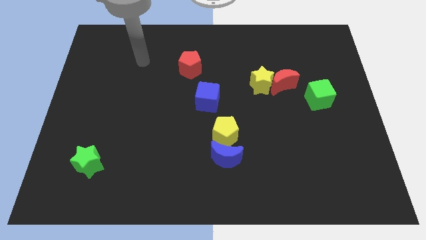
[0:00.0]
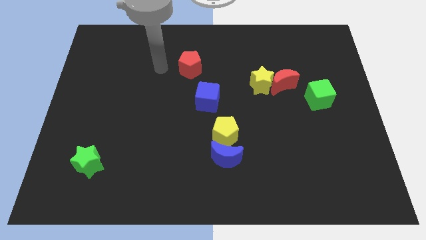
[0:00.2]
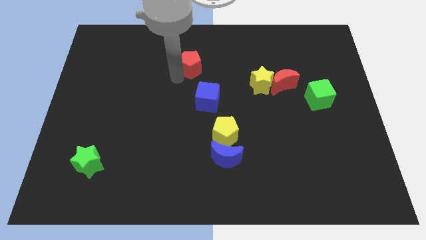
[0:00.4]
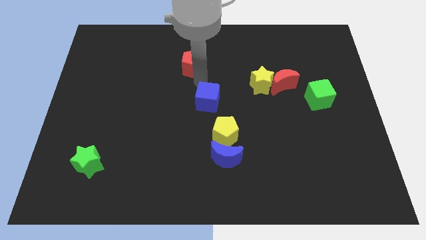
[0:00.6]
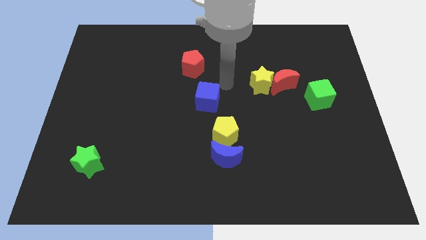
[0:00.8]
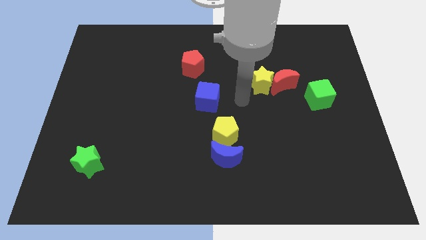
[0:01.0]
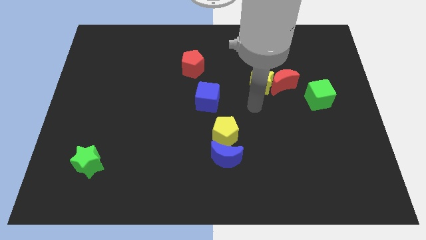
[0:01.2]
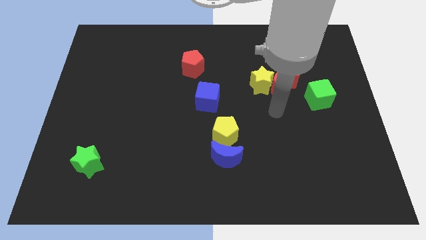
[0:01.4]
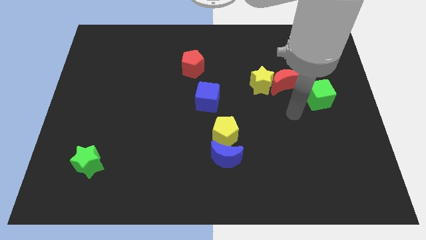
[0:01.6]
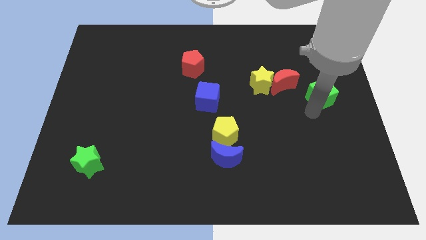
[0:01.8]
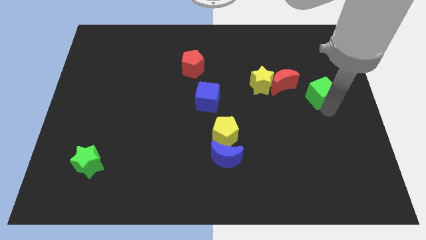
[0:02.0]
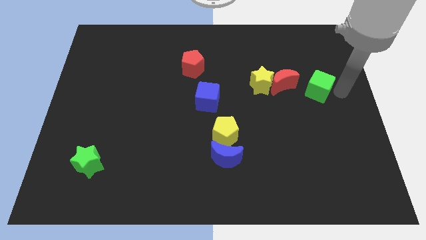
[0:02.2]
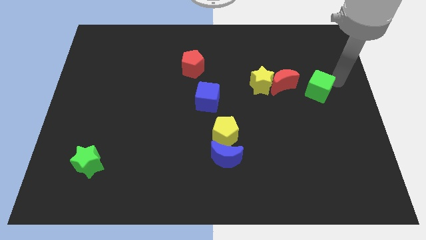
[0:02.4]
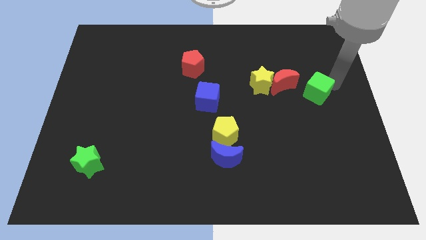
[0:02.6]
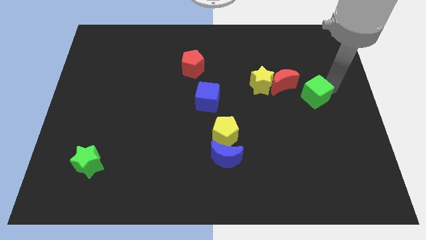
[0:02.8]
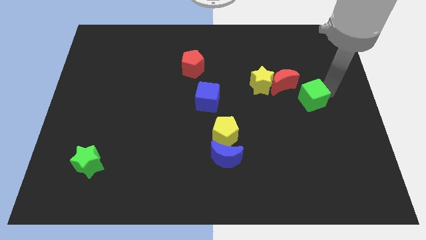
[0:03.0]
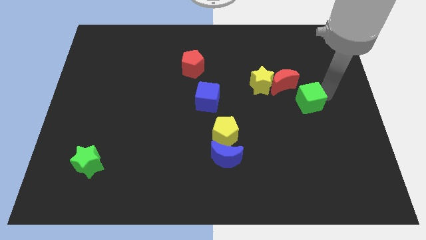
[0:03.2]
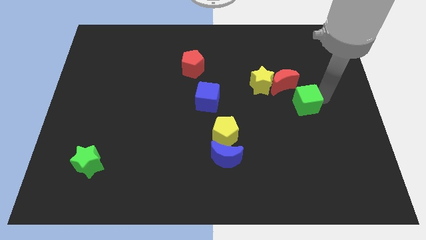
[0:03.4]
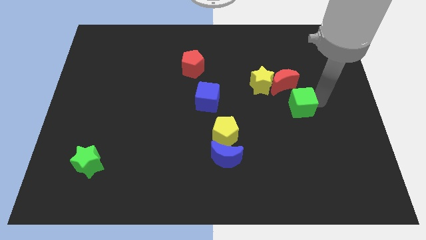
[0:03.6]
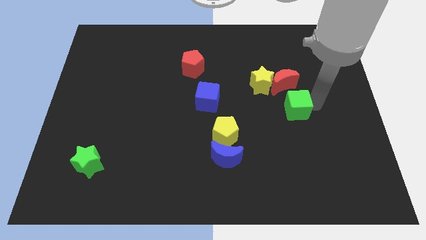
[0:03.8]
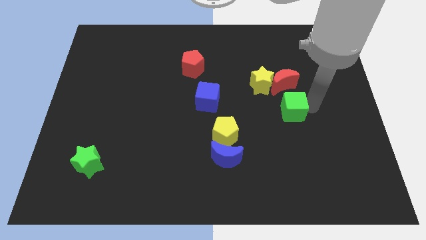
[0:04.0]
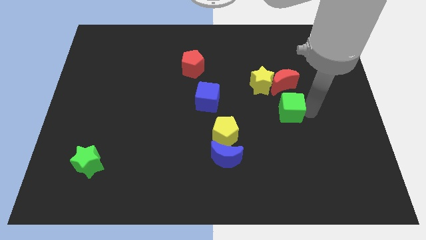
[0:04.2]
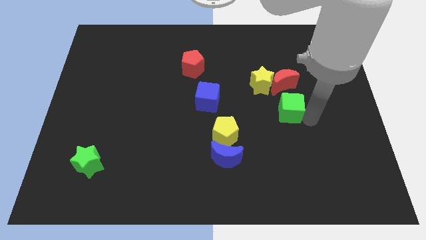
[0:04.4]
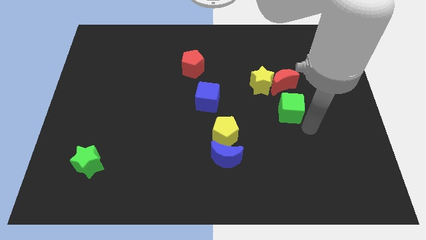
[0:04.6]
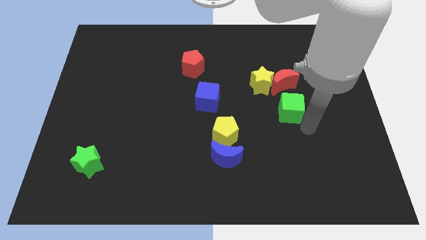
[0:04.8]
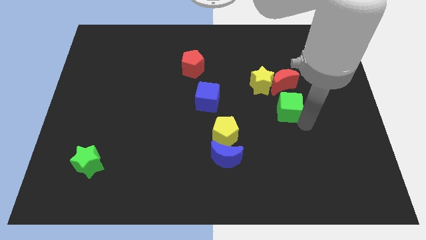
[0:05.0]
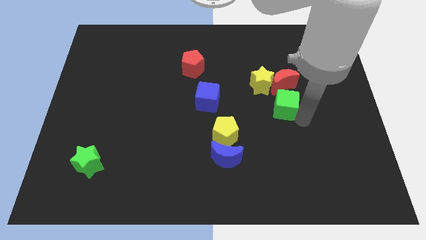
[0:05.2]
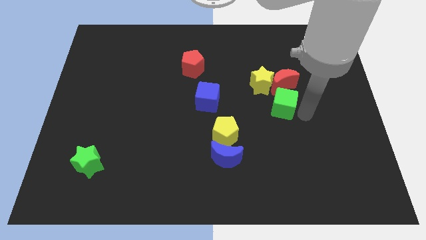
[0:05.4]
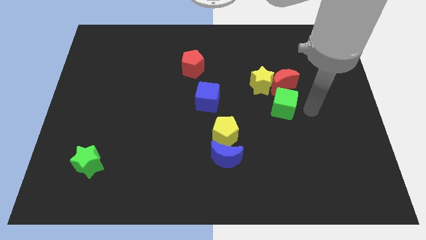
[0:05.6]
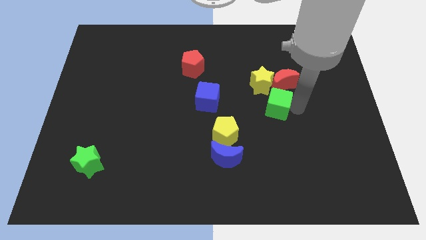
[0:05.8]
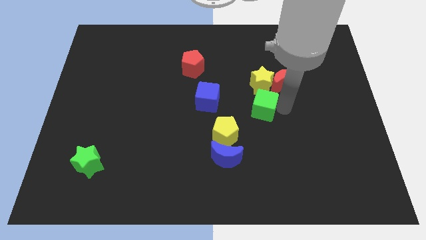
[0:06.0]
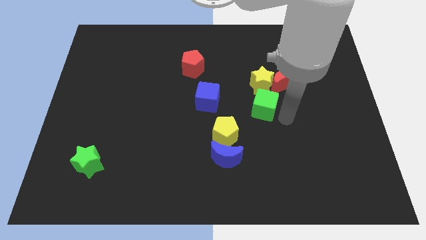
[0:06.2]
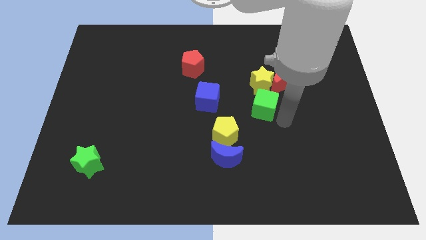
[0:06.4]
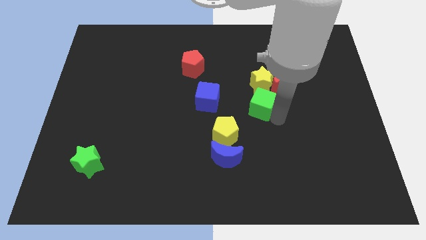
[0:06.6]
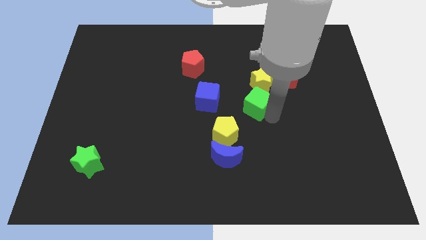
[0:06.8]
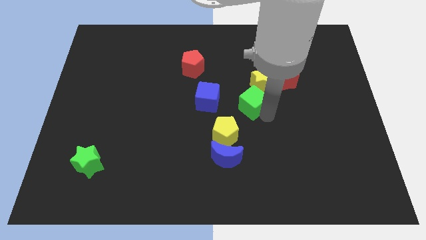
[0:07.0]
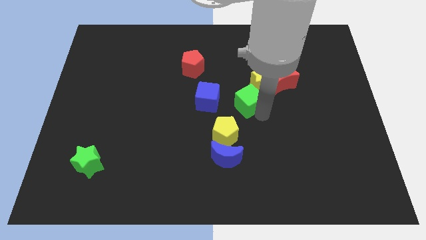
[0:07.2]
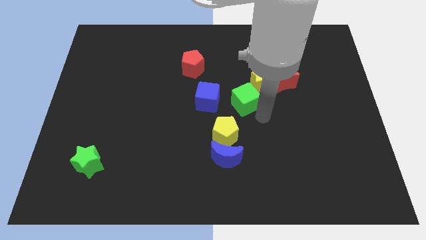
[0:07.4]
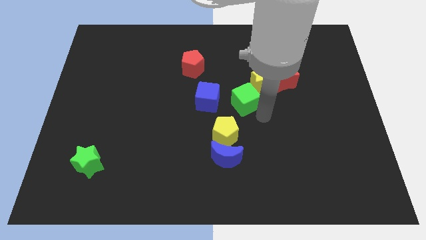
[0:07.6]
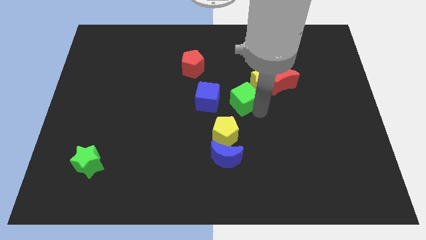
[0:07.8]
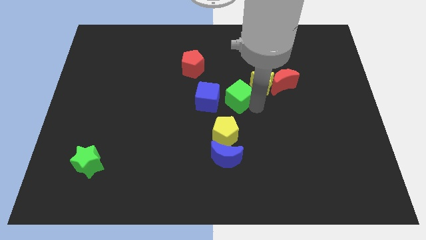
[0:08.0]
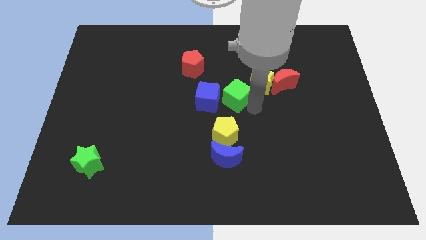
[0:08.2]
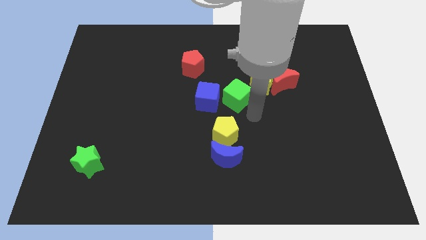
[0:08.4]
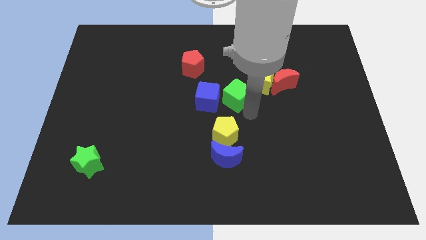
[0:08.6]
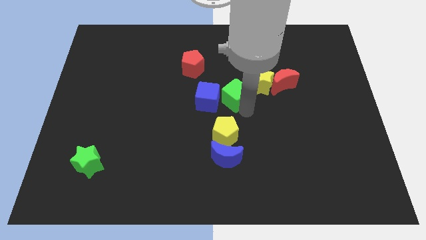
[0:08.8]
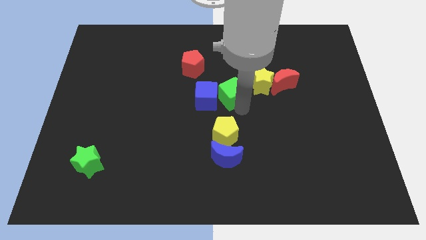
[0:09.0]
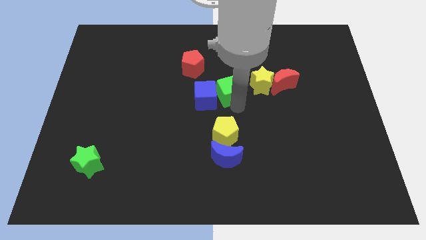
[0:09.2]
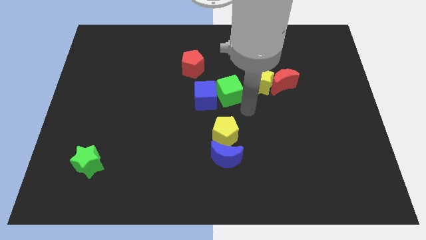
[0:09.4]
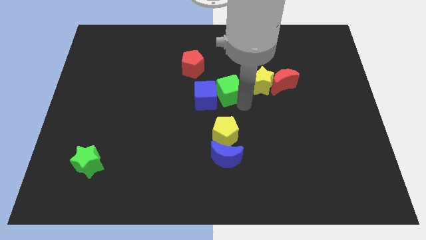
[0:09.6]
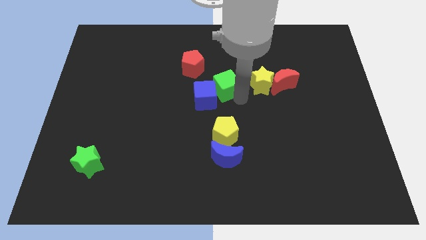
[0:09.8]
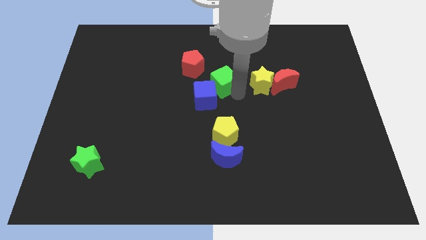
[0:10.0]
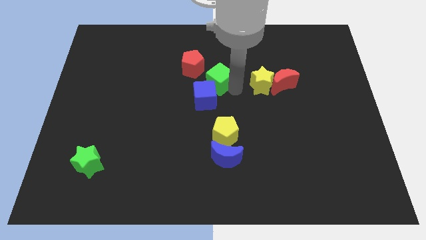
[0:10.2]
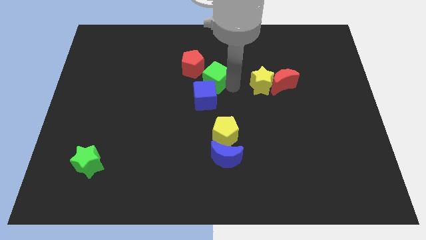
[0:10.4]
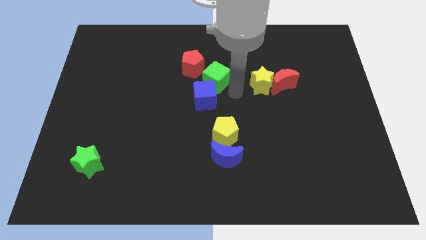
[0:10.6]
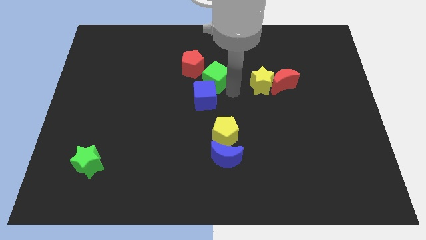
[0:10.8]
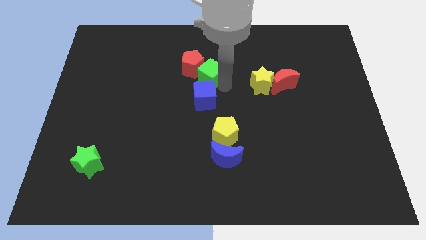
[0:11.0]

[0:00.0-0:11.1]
put the green cube next to the red pentagon
